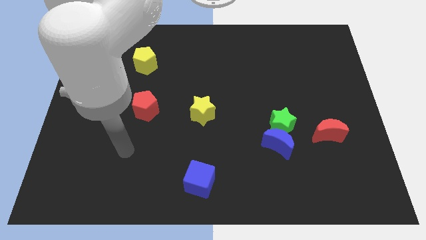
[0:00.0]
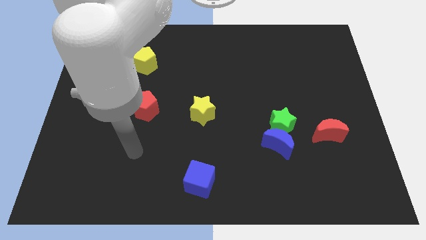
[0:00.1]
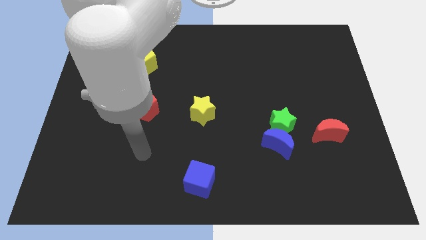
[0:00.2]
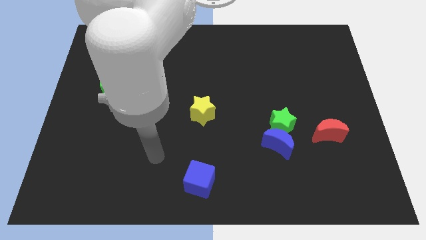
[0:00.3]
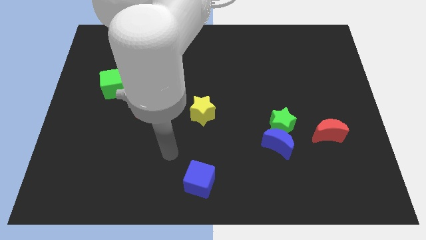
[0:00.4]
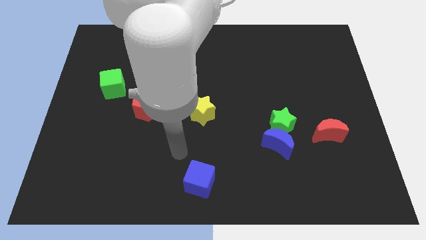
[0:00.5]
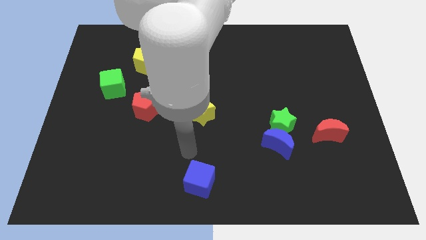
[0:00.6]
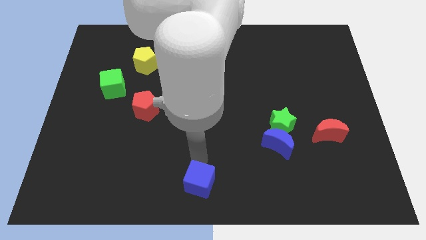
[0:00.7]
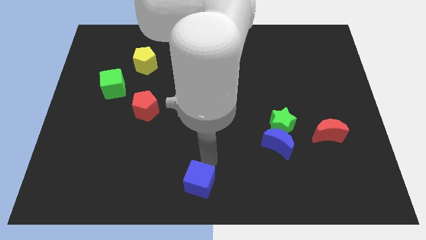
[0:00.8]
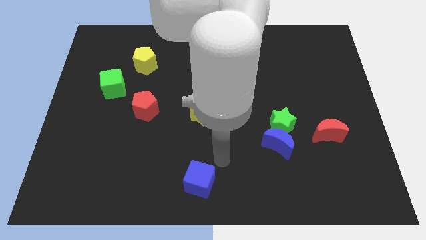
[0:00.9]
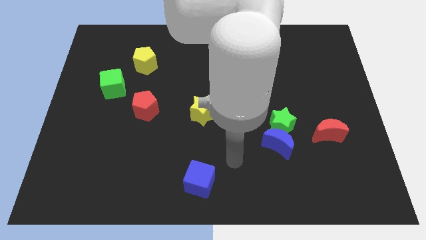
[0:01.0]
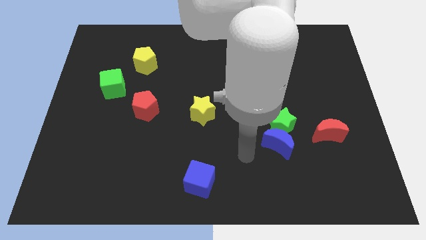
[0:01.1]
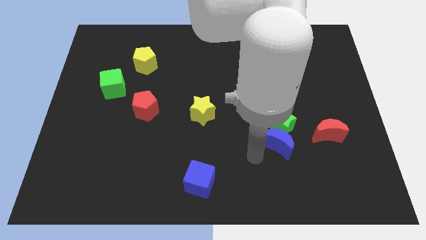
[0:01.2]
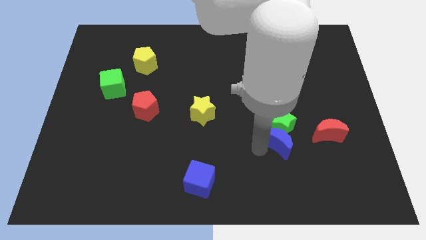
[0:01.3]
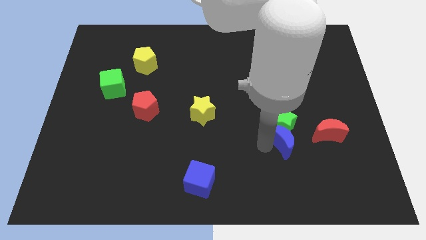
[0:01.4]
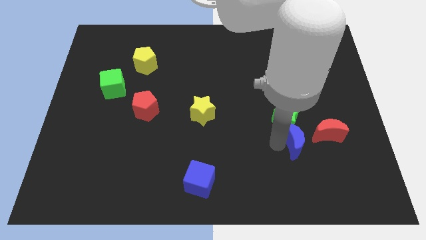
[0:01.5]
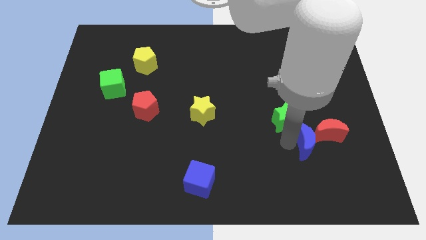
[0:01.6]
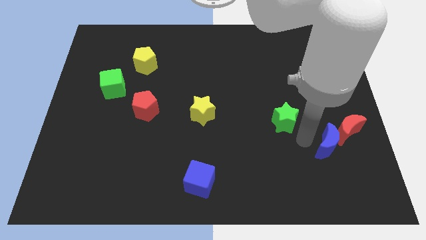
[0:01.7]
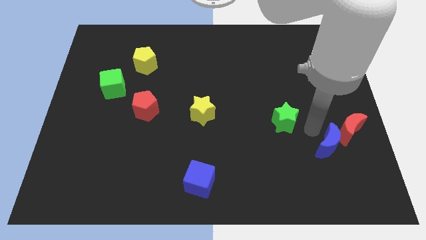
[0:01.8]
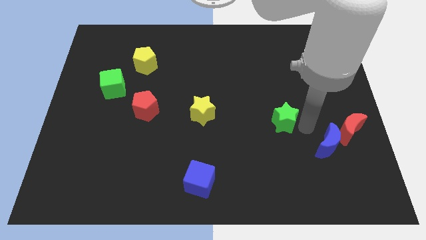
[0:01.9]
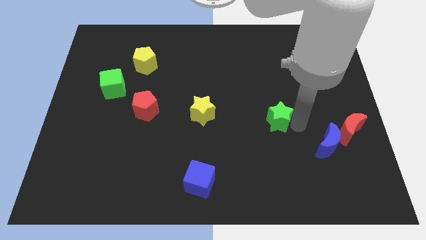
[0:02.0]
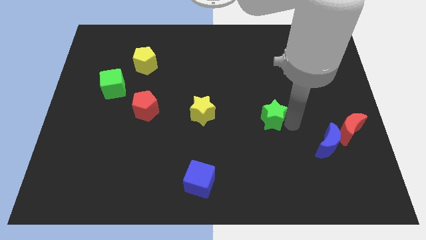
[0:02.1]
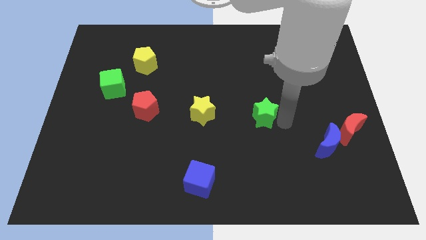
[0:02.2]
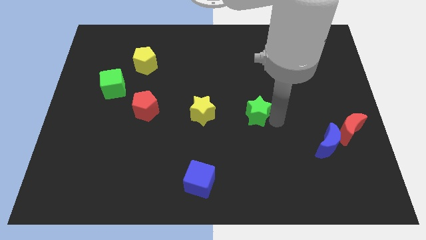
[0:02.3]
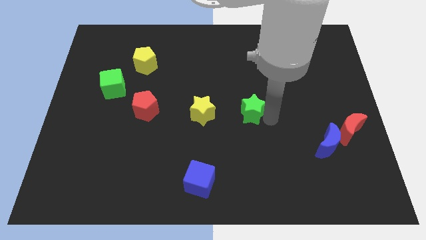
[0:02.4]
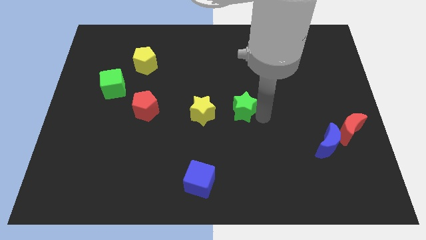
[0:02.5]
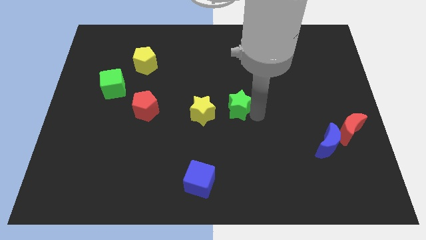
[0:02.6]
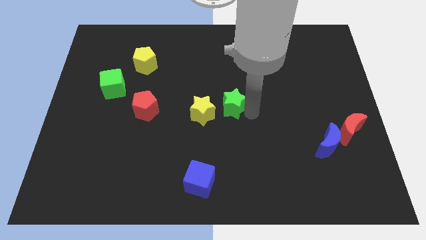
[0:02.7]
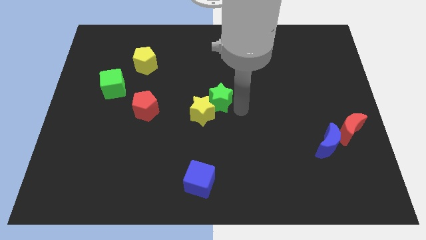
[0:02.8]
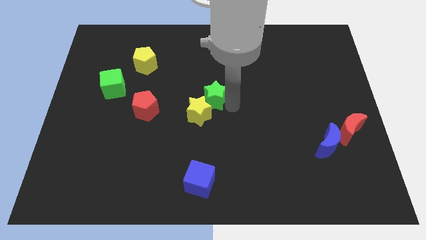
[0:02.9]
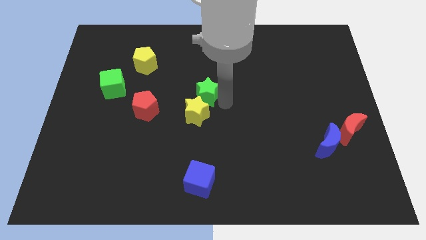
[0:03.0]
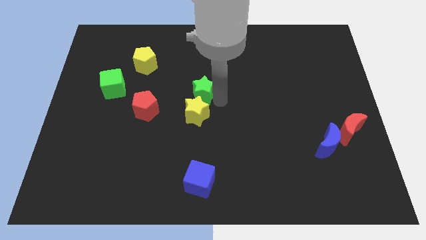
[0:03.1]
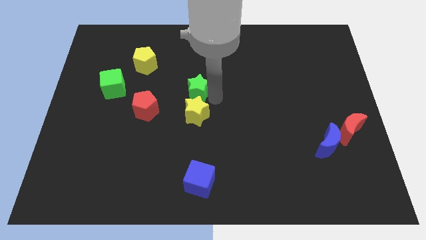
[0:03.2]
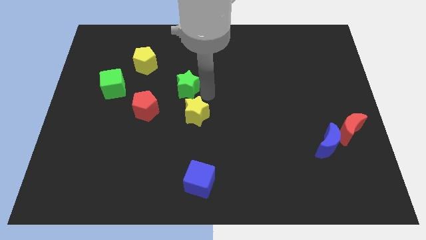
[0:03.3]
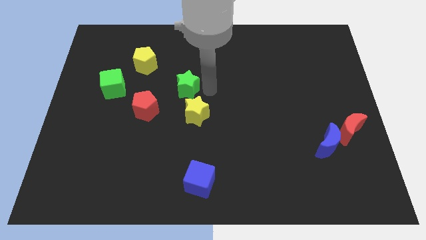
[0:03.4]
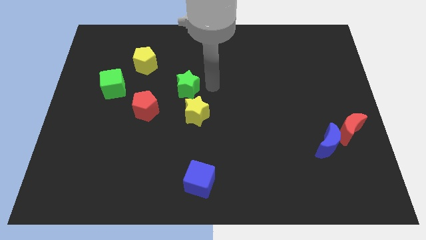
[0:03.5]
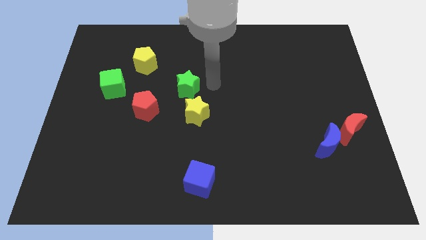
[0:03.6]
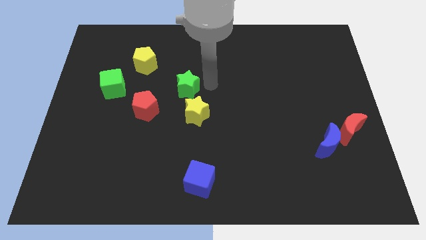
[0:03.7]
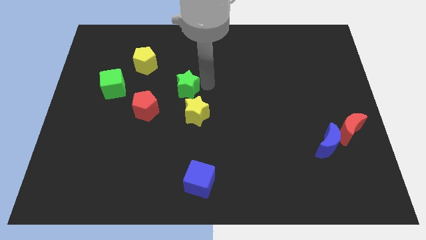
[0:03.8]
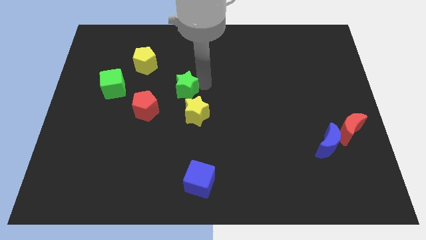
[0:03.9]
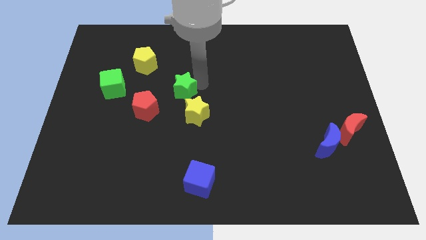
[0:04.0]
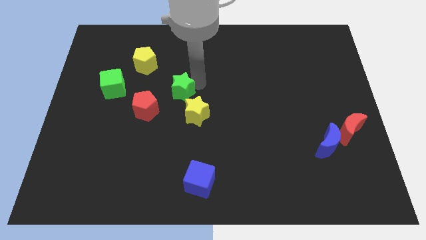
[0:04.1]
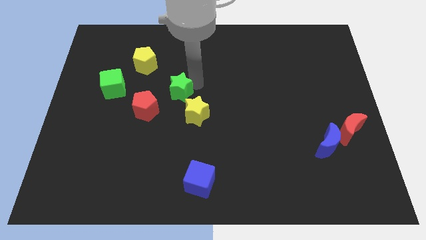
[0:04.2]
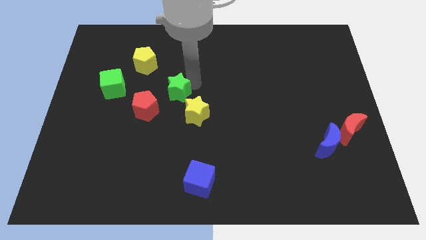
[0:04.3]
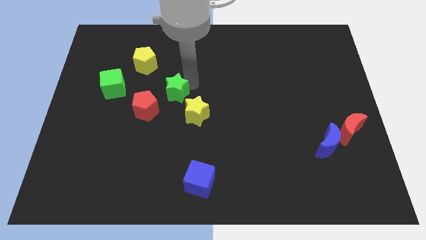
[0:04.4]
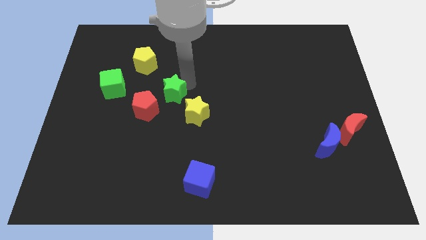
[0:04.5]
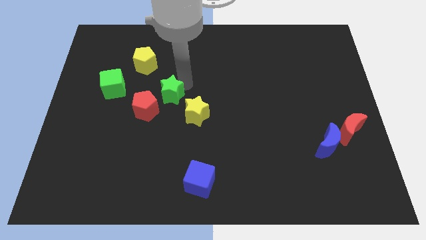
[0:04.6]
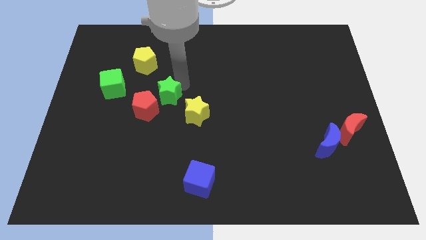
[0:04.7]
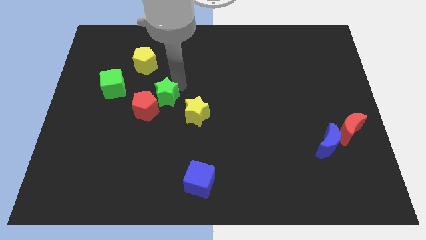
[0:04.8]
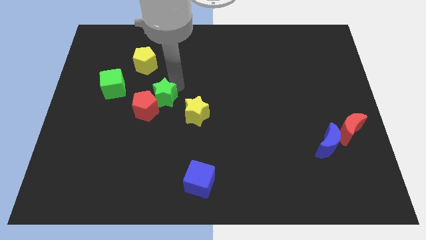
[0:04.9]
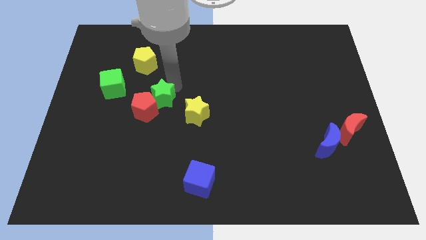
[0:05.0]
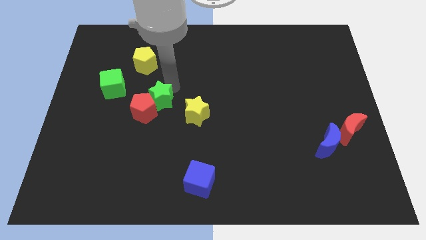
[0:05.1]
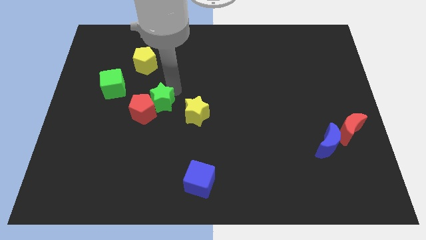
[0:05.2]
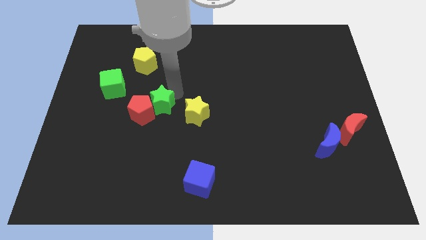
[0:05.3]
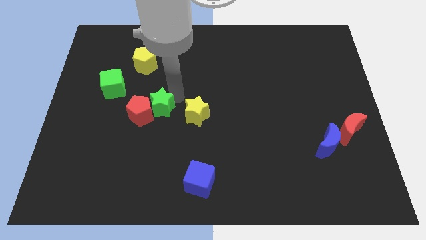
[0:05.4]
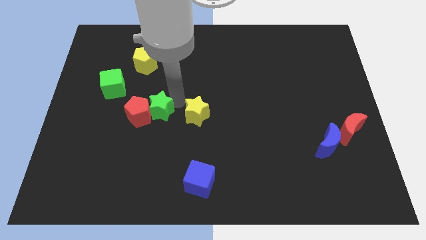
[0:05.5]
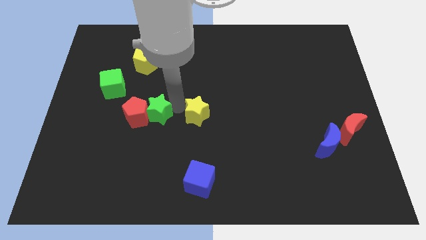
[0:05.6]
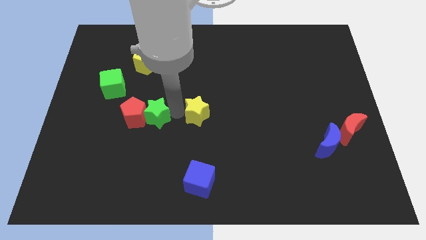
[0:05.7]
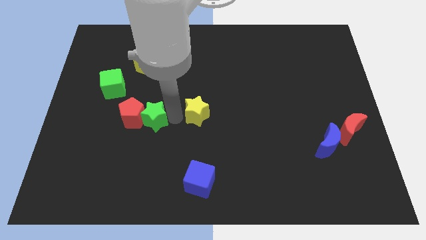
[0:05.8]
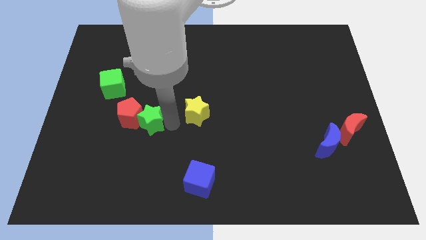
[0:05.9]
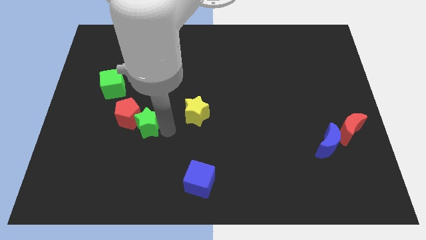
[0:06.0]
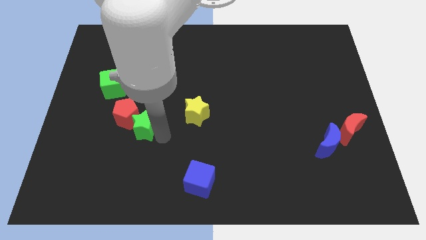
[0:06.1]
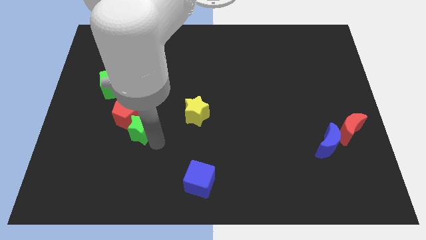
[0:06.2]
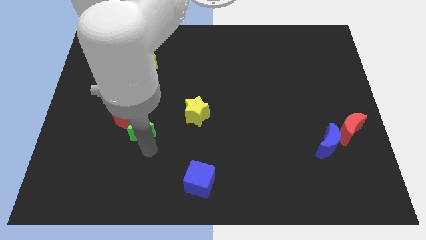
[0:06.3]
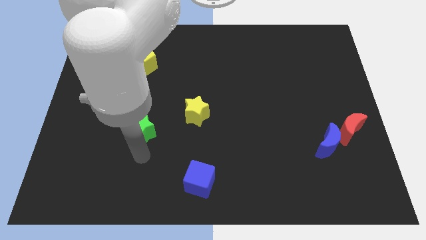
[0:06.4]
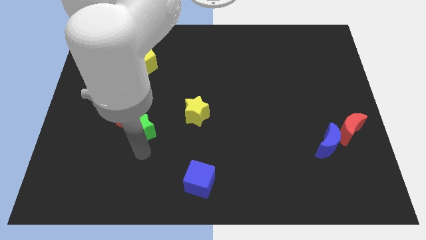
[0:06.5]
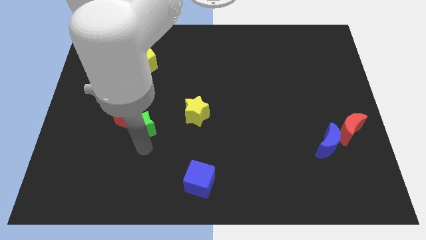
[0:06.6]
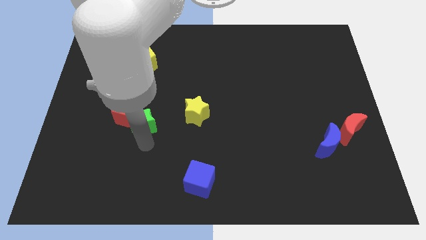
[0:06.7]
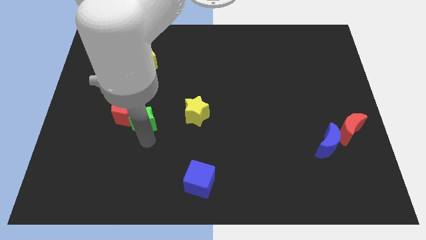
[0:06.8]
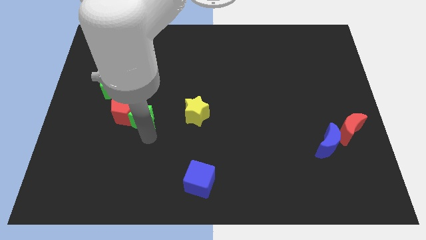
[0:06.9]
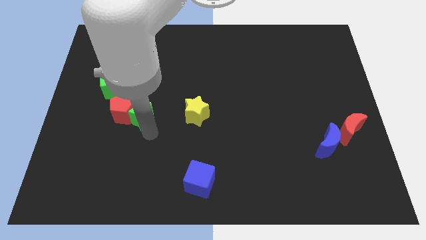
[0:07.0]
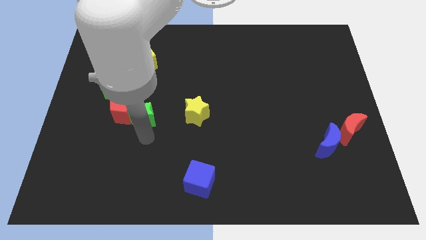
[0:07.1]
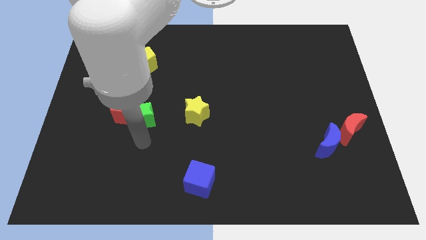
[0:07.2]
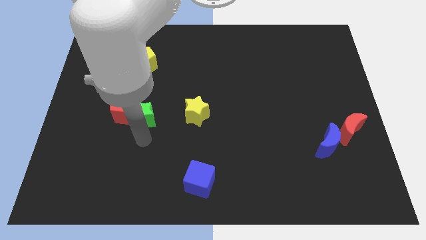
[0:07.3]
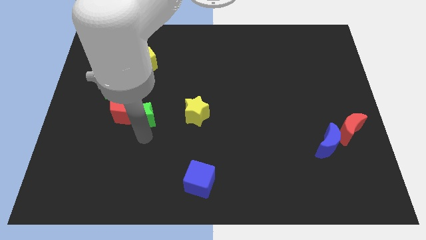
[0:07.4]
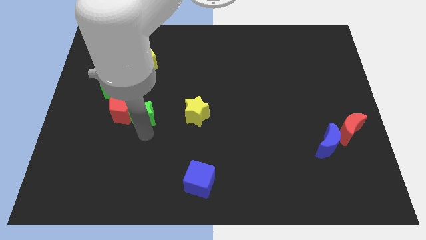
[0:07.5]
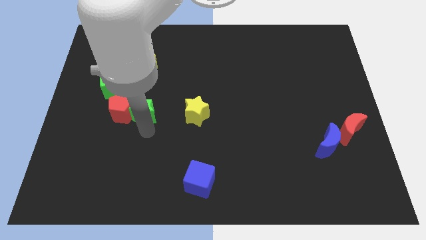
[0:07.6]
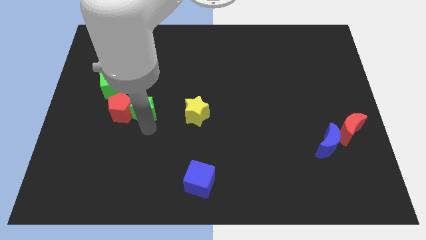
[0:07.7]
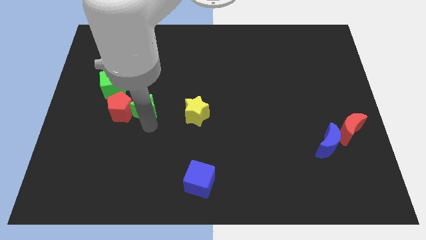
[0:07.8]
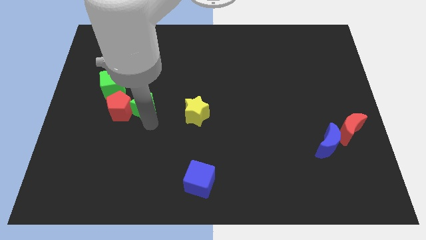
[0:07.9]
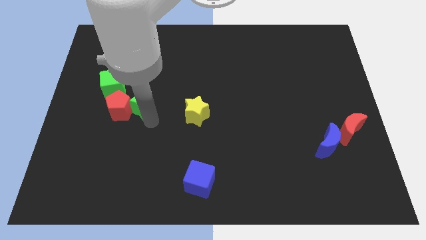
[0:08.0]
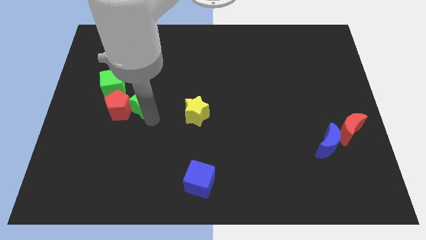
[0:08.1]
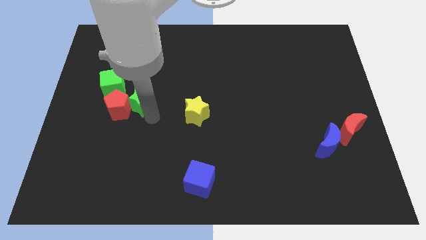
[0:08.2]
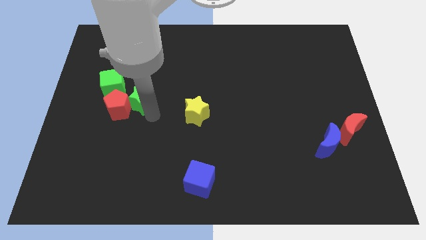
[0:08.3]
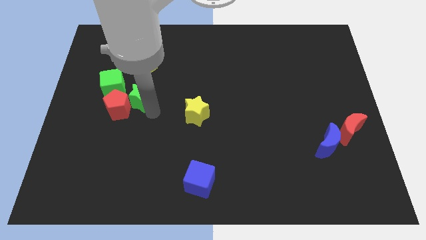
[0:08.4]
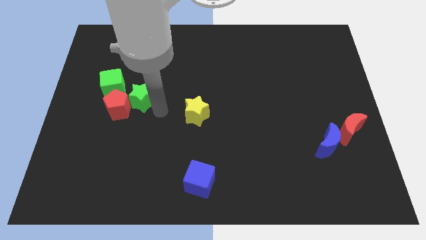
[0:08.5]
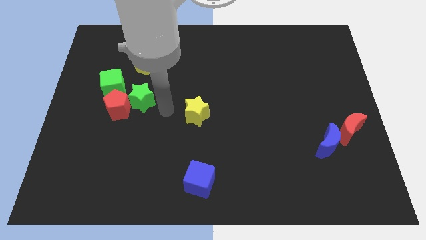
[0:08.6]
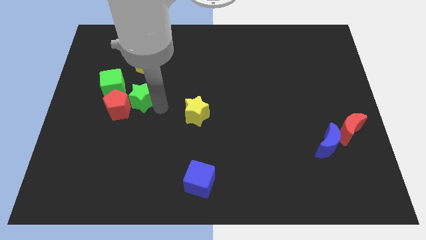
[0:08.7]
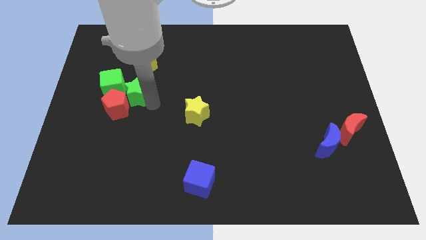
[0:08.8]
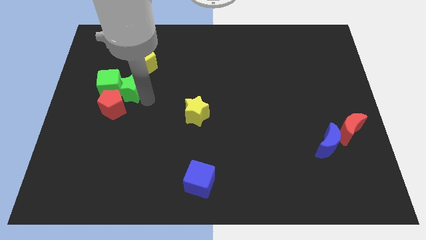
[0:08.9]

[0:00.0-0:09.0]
move the green star close to the green cube
